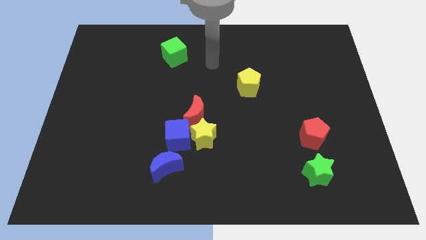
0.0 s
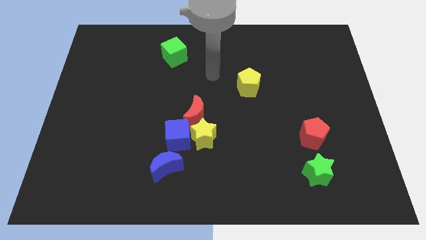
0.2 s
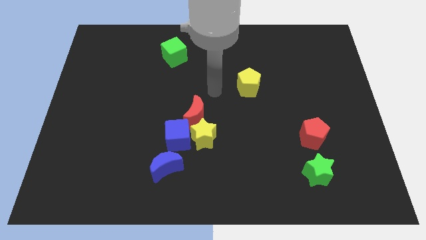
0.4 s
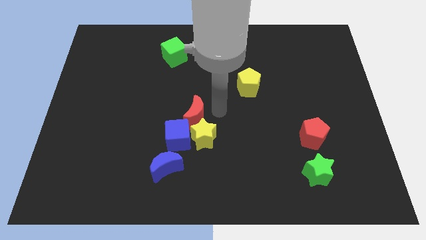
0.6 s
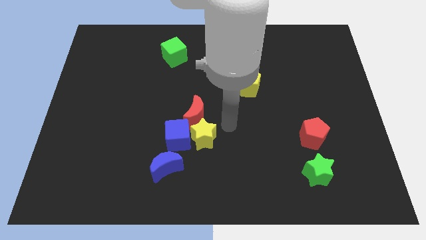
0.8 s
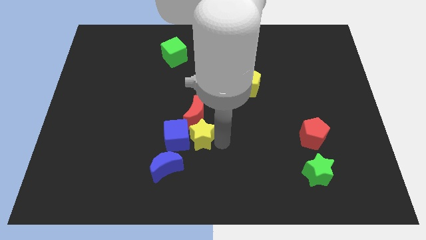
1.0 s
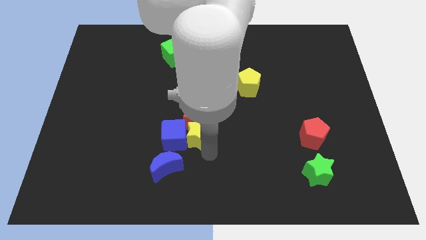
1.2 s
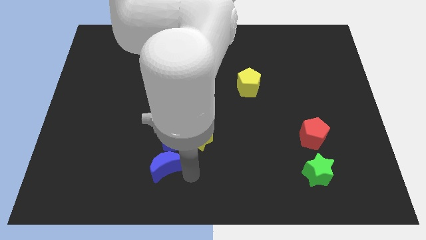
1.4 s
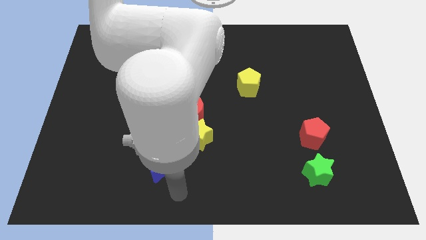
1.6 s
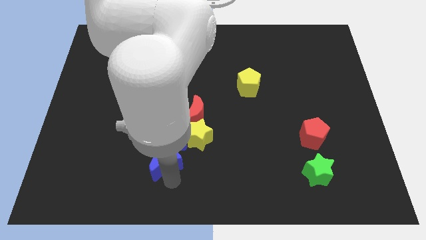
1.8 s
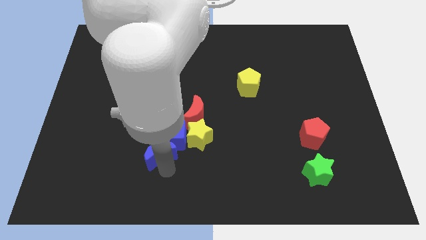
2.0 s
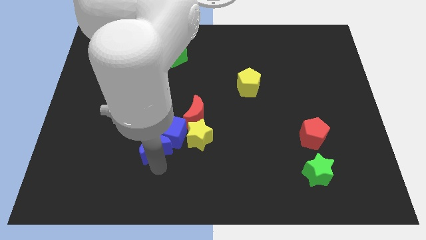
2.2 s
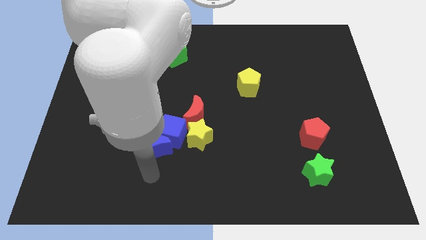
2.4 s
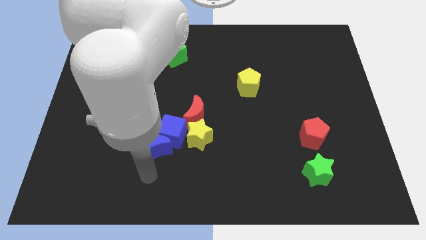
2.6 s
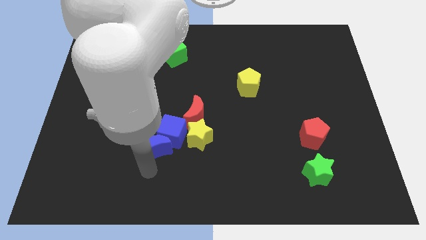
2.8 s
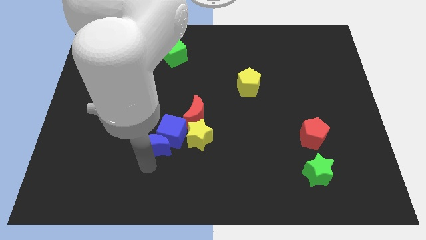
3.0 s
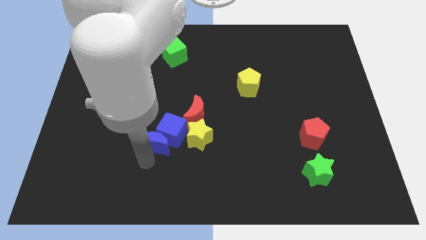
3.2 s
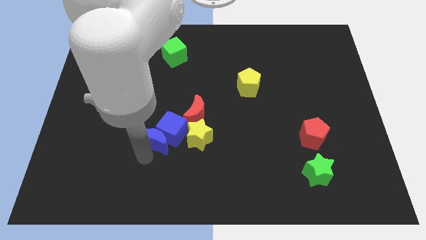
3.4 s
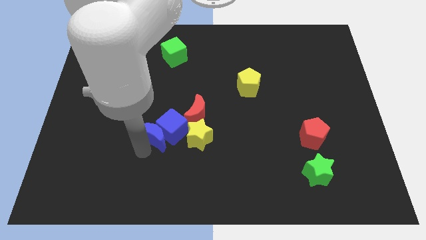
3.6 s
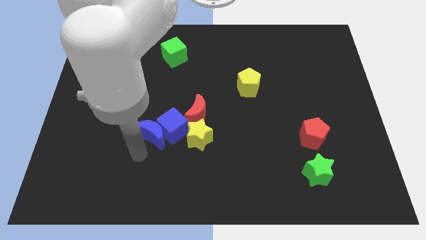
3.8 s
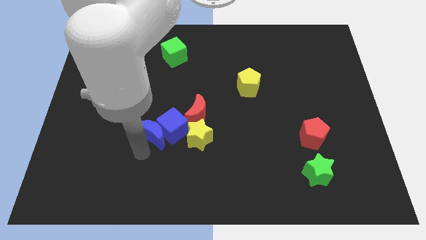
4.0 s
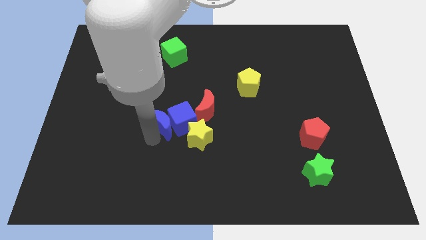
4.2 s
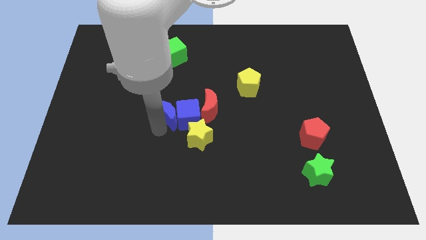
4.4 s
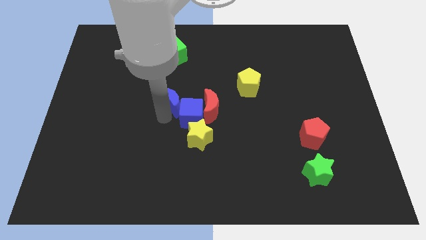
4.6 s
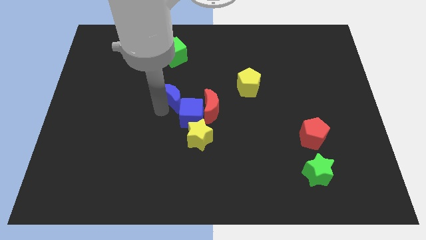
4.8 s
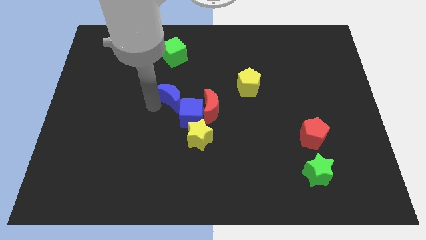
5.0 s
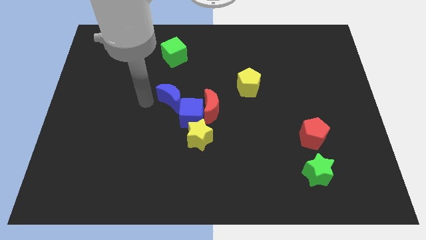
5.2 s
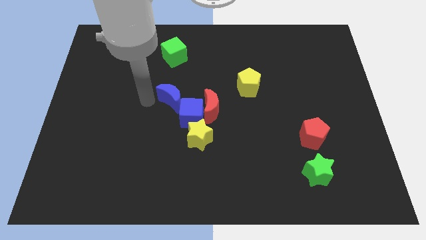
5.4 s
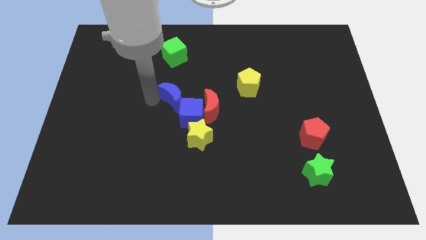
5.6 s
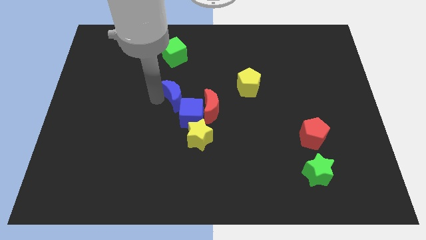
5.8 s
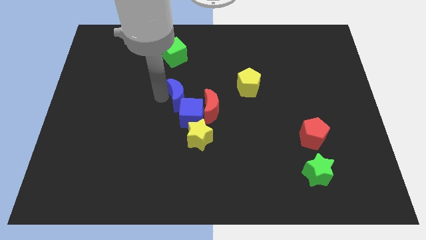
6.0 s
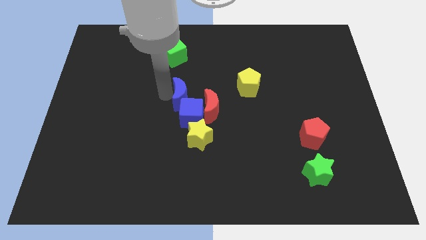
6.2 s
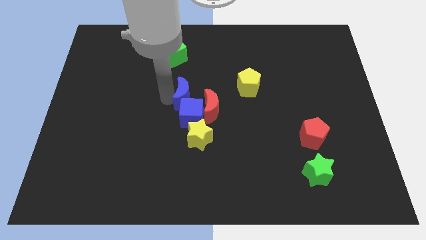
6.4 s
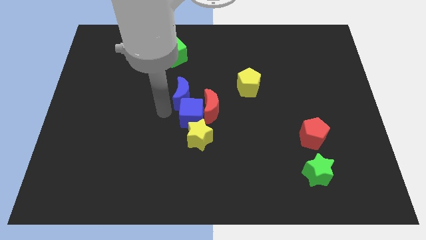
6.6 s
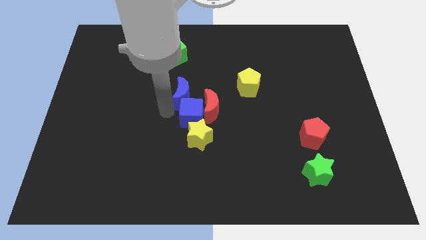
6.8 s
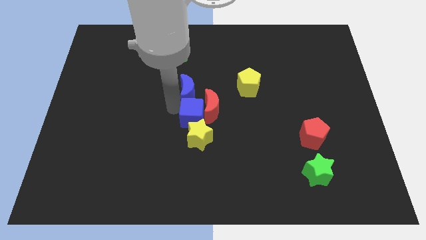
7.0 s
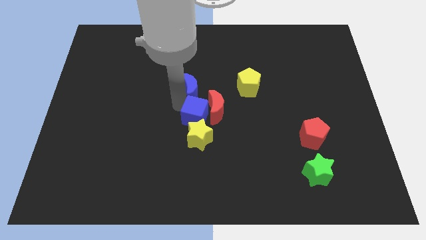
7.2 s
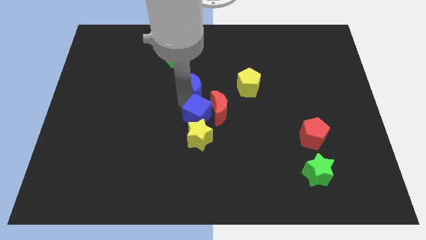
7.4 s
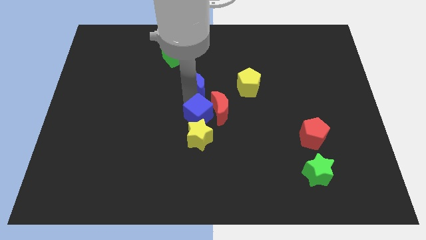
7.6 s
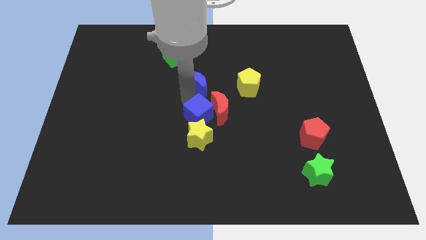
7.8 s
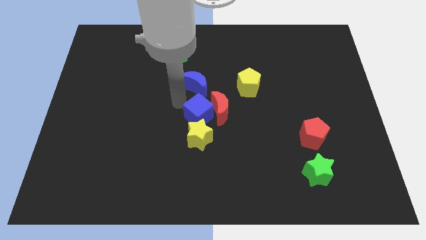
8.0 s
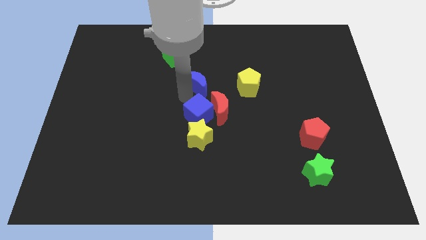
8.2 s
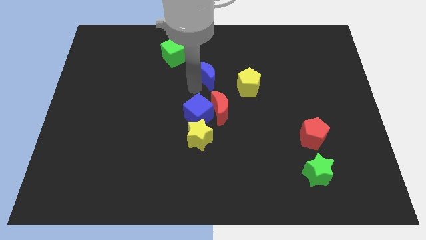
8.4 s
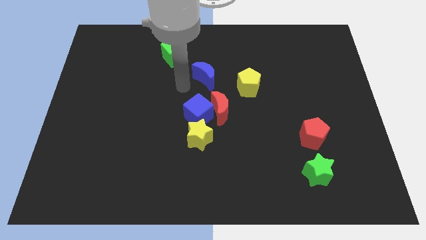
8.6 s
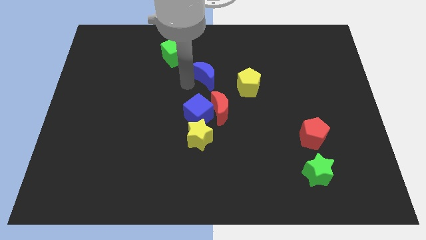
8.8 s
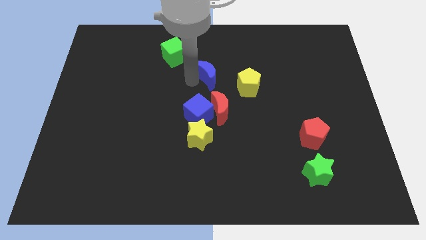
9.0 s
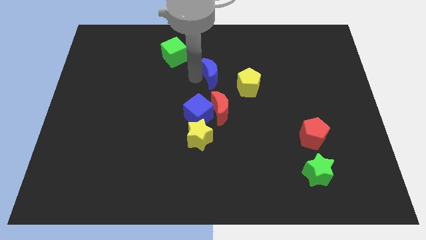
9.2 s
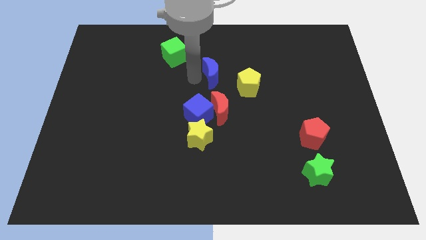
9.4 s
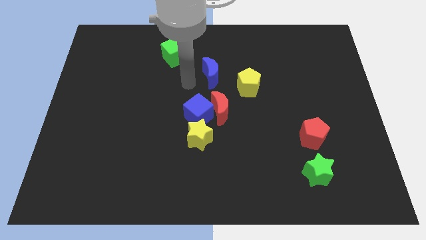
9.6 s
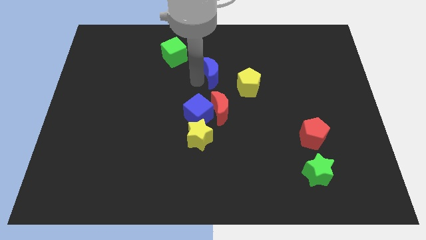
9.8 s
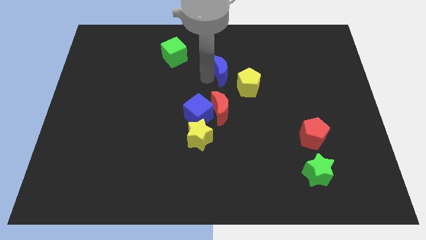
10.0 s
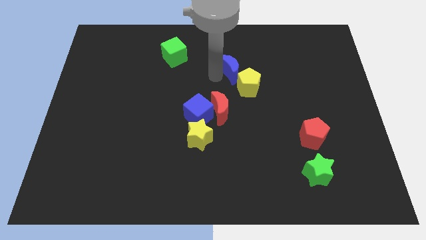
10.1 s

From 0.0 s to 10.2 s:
push the blue moon to the top side of the yellow pentagon

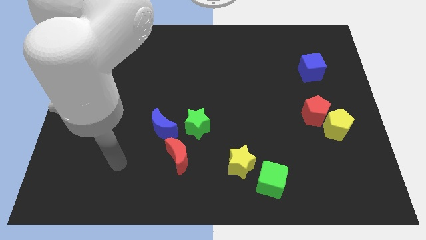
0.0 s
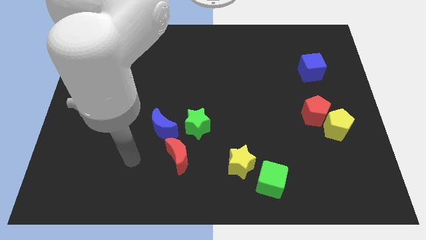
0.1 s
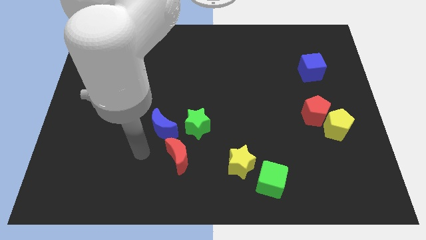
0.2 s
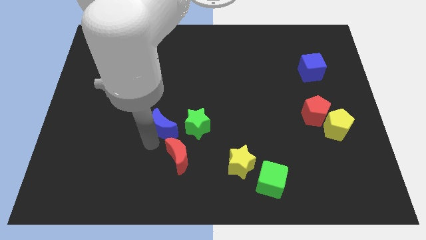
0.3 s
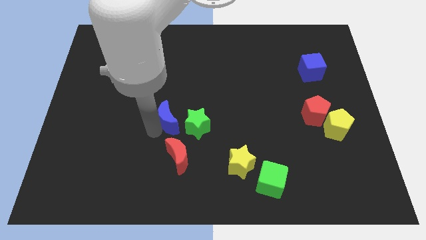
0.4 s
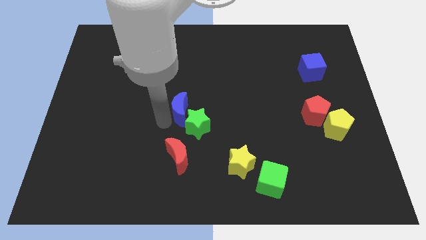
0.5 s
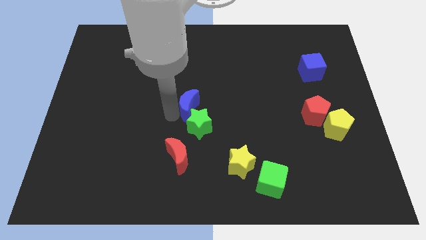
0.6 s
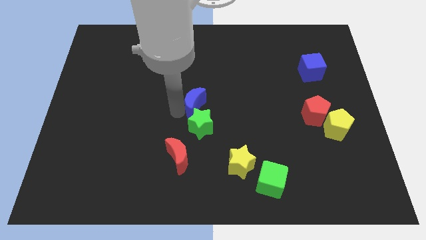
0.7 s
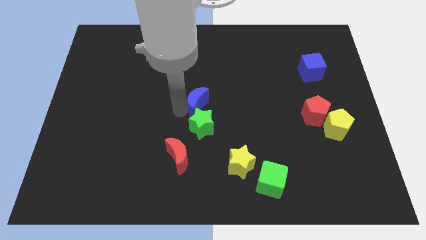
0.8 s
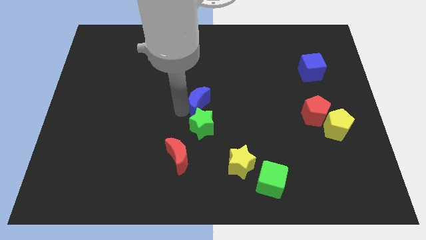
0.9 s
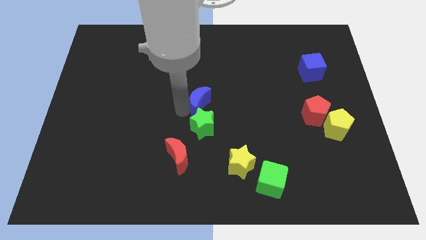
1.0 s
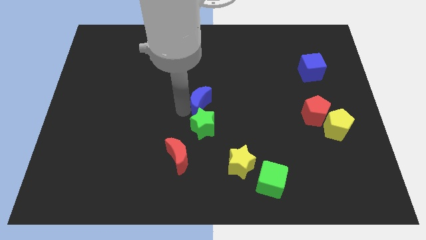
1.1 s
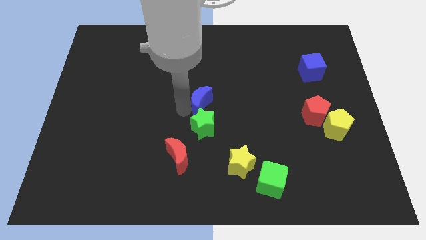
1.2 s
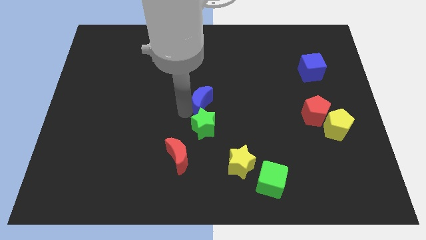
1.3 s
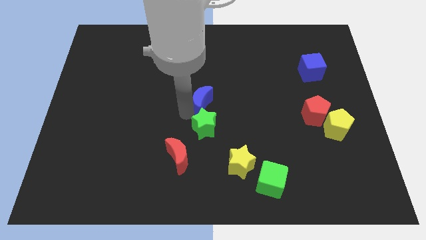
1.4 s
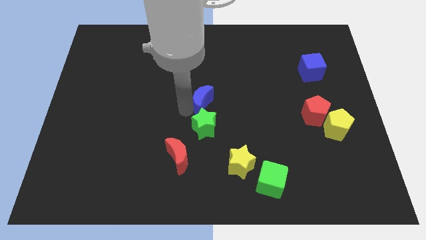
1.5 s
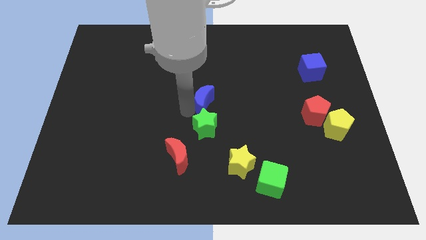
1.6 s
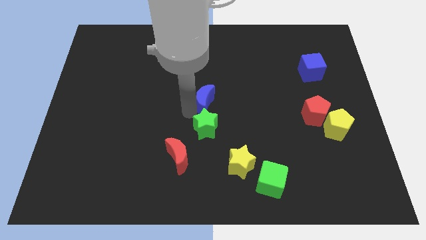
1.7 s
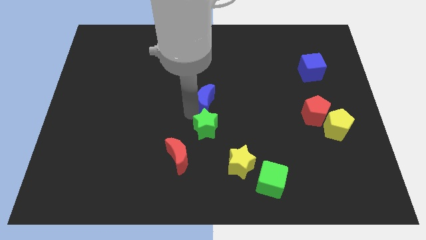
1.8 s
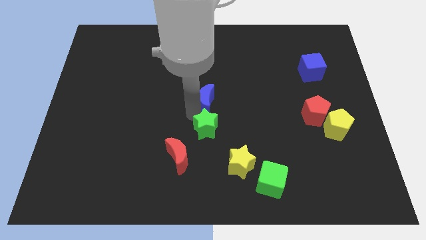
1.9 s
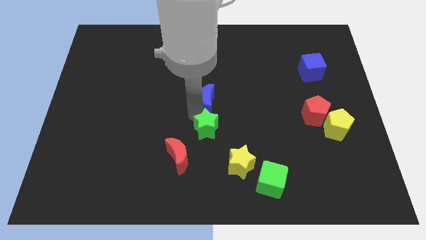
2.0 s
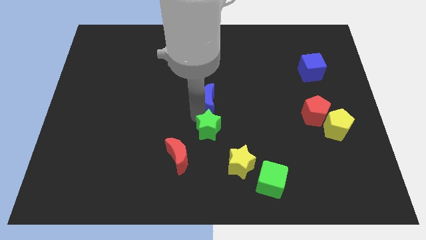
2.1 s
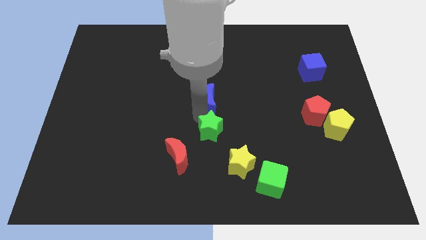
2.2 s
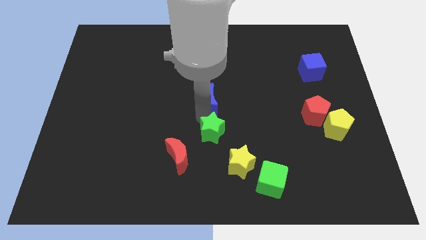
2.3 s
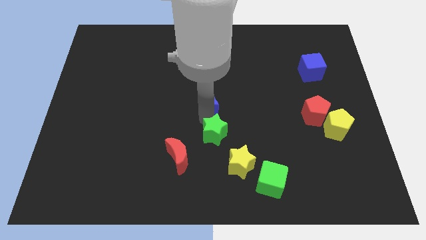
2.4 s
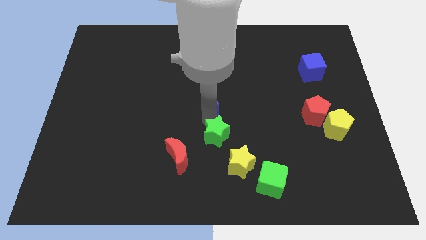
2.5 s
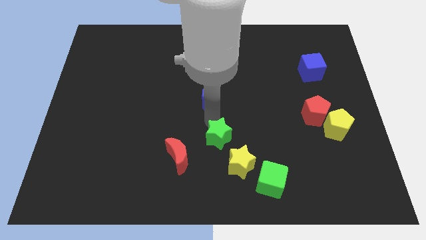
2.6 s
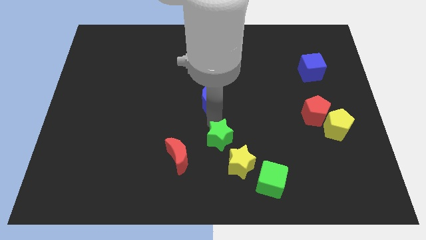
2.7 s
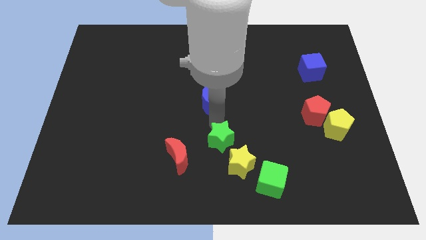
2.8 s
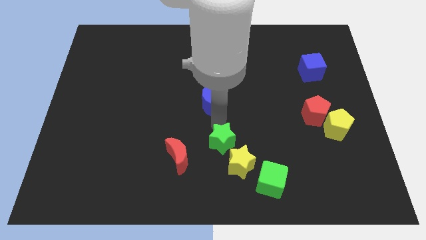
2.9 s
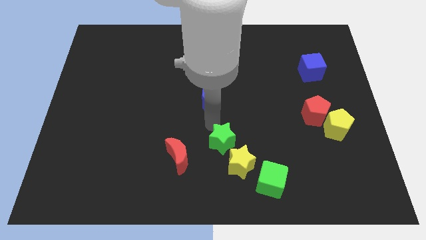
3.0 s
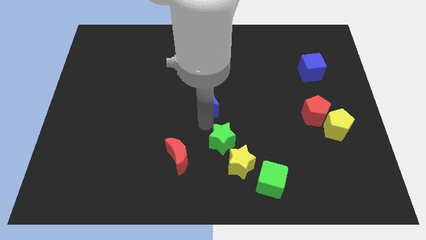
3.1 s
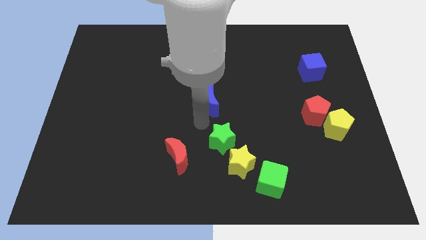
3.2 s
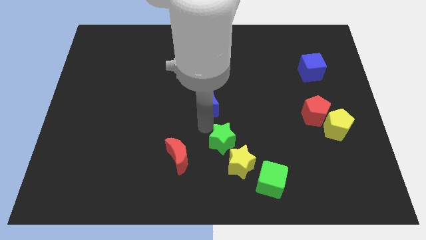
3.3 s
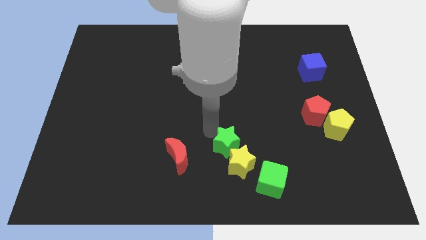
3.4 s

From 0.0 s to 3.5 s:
slide the green star to the top left of the green cube
